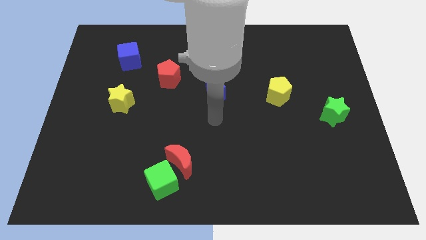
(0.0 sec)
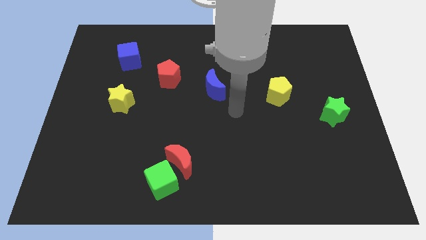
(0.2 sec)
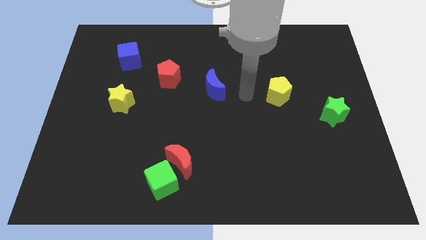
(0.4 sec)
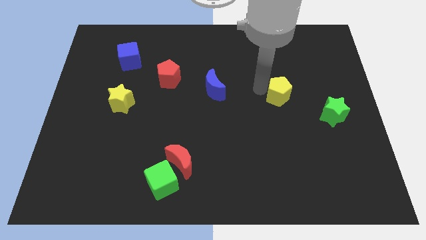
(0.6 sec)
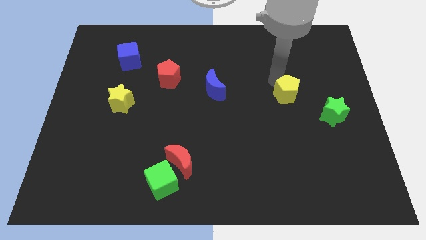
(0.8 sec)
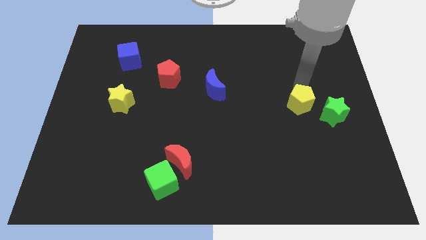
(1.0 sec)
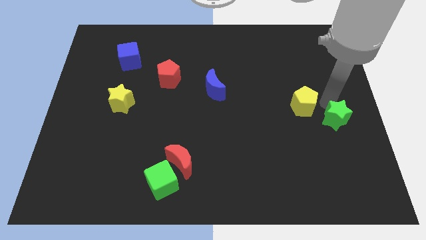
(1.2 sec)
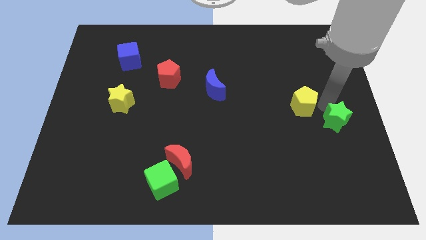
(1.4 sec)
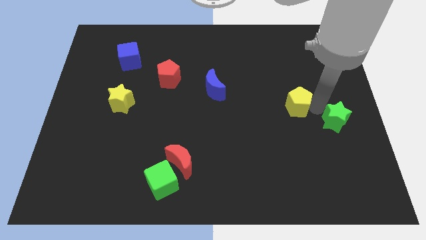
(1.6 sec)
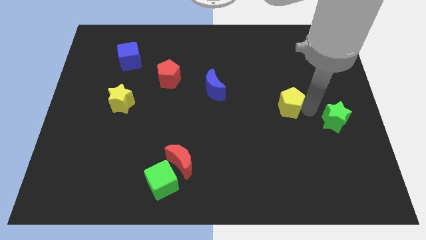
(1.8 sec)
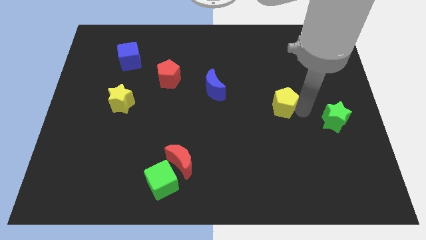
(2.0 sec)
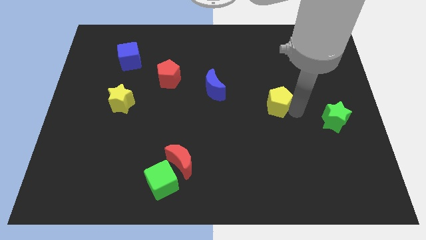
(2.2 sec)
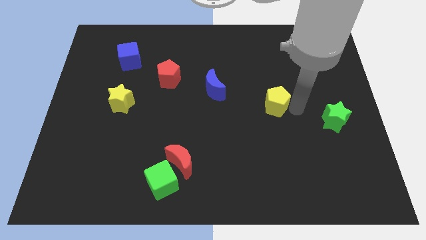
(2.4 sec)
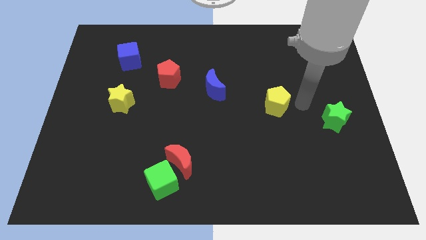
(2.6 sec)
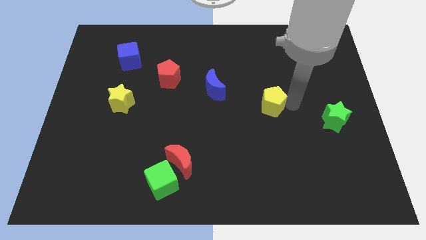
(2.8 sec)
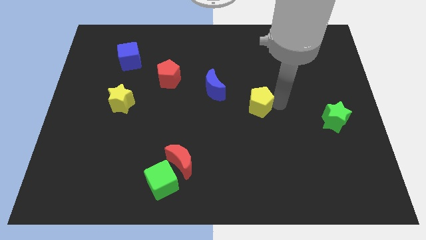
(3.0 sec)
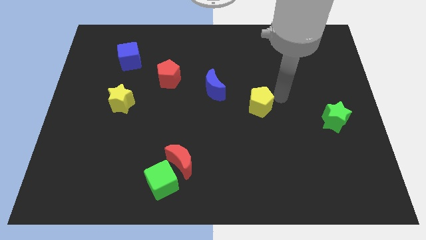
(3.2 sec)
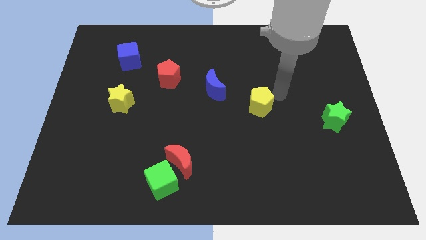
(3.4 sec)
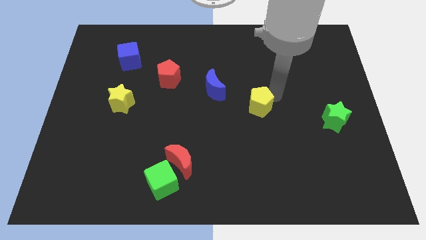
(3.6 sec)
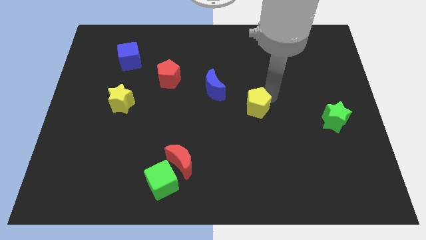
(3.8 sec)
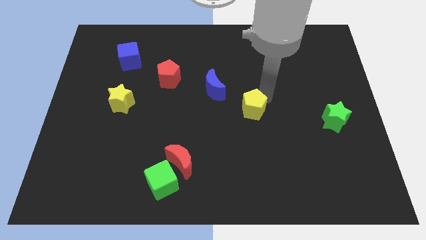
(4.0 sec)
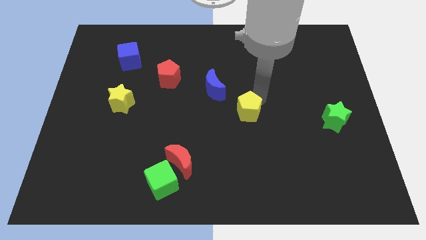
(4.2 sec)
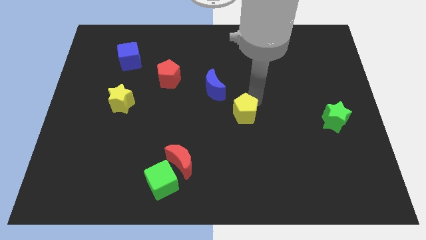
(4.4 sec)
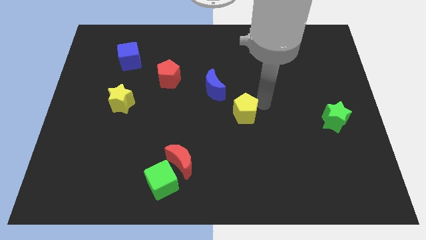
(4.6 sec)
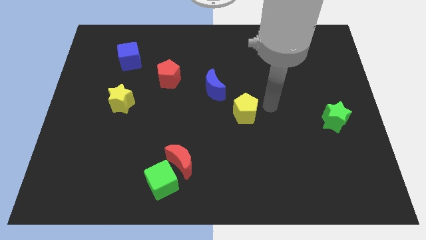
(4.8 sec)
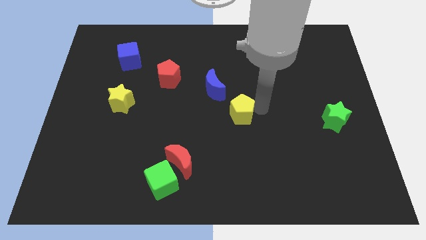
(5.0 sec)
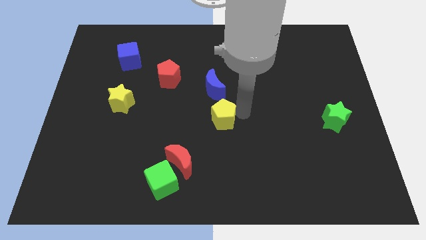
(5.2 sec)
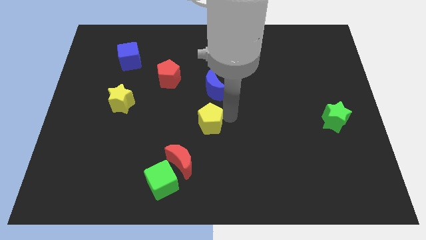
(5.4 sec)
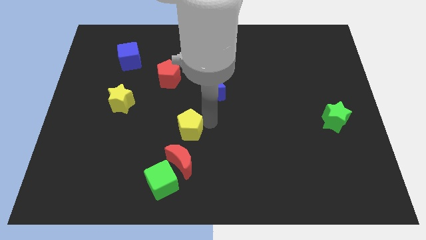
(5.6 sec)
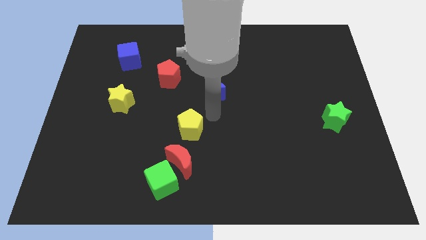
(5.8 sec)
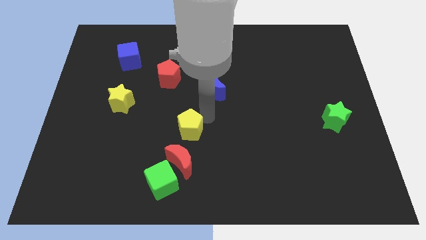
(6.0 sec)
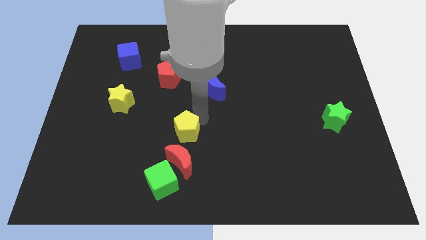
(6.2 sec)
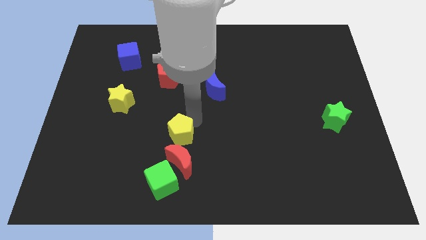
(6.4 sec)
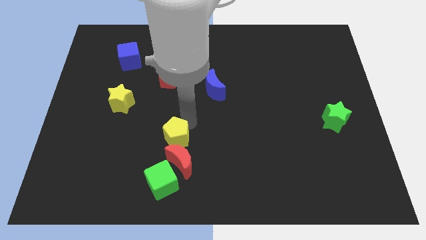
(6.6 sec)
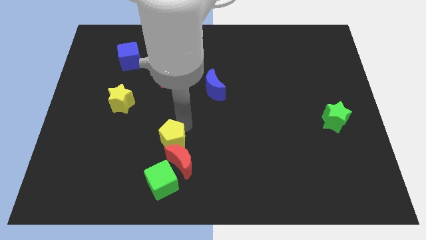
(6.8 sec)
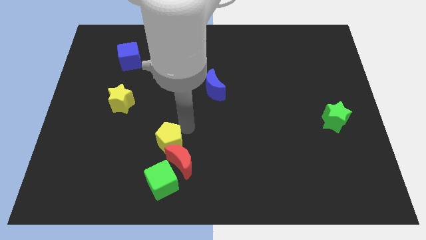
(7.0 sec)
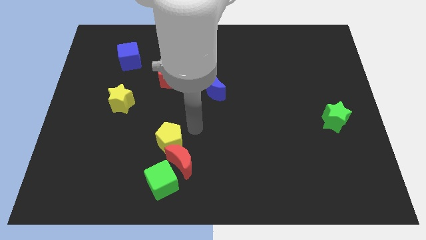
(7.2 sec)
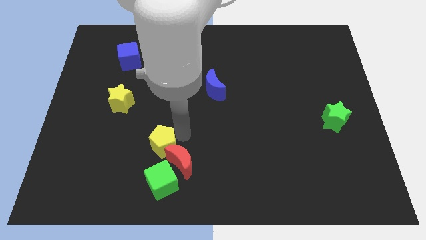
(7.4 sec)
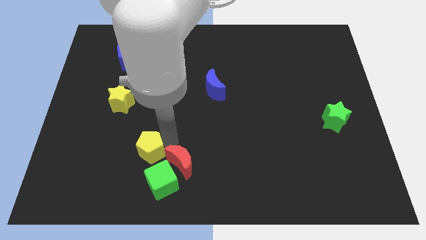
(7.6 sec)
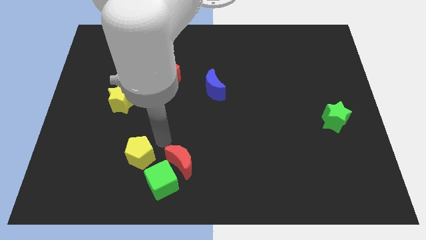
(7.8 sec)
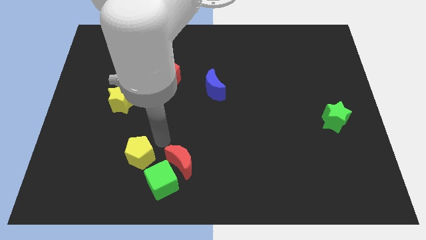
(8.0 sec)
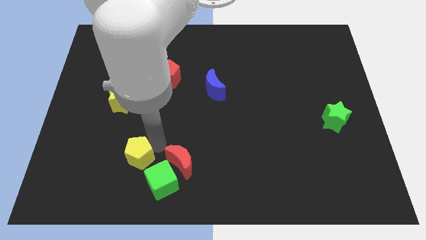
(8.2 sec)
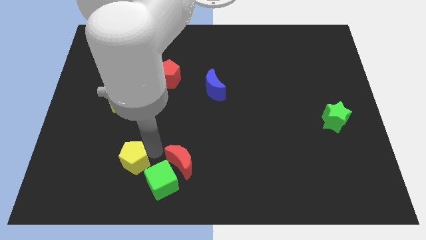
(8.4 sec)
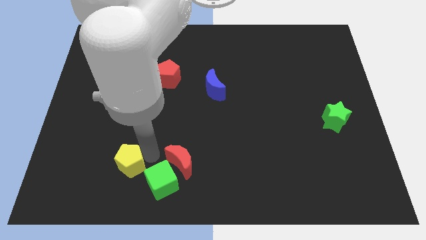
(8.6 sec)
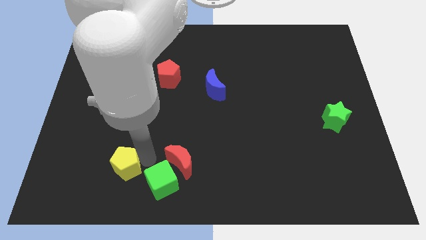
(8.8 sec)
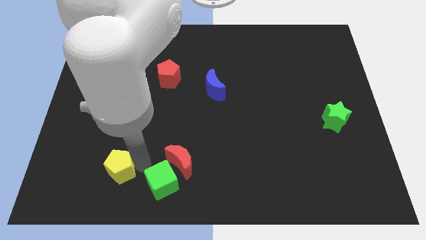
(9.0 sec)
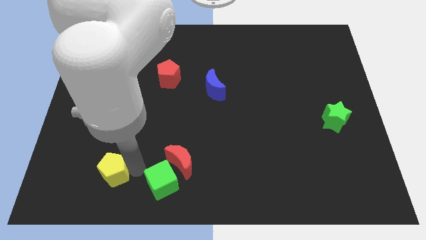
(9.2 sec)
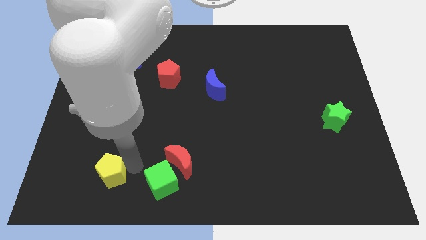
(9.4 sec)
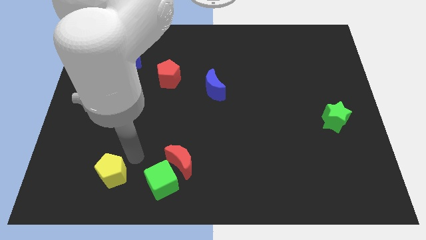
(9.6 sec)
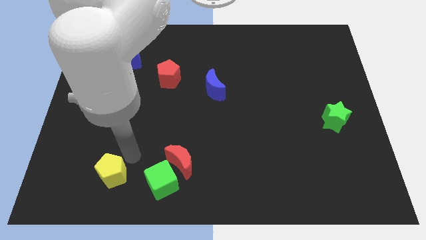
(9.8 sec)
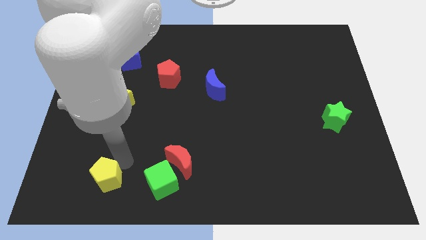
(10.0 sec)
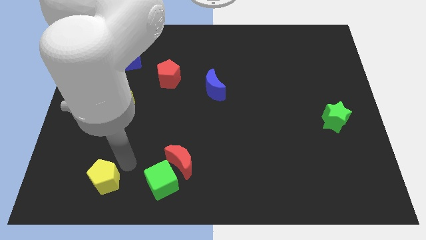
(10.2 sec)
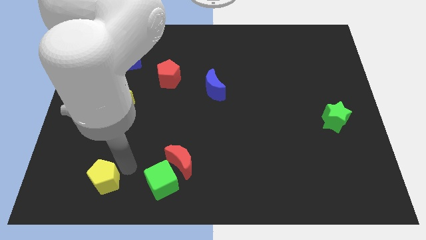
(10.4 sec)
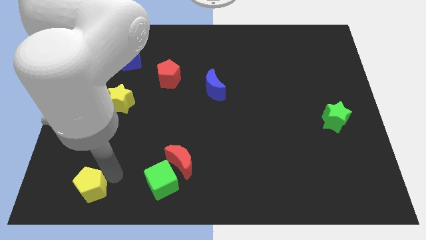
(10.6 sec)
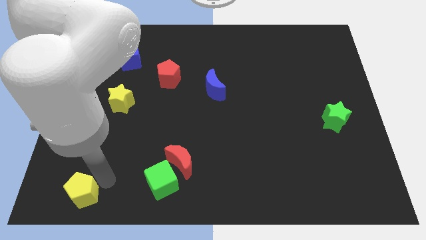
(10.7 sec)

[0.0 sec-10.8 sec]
move the yellow pentagon to the bottom left of the board

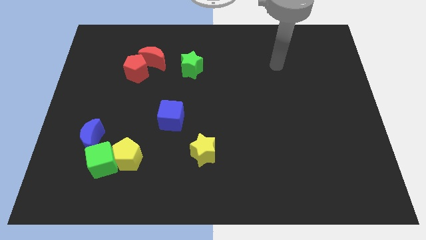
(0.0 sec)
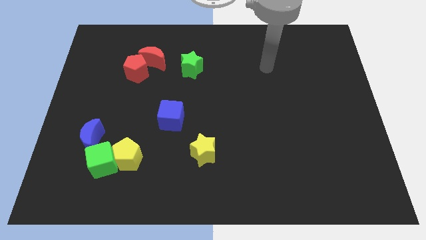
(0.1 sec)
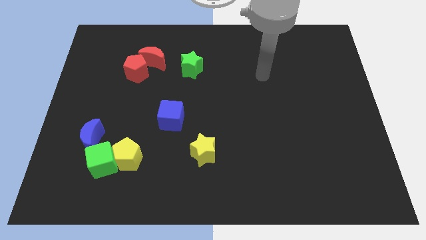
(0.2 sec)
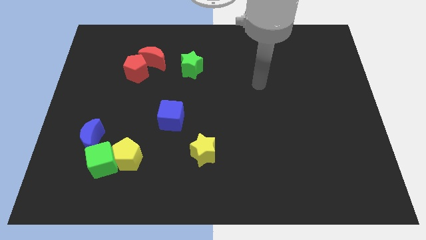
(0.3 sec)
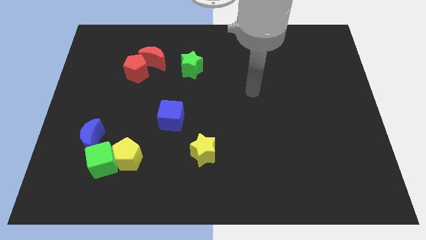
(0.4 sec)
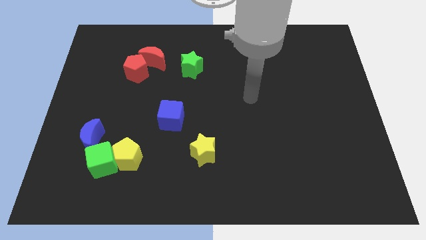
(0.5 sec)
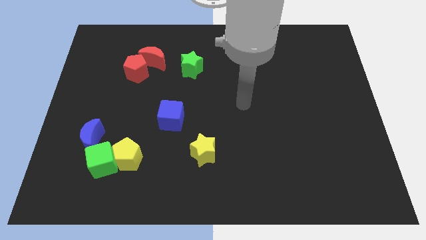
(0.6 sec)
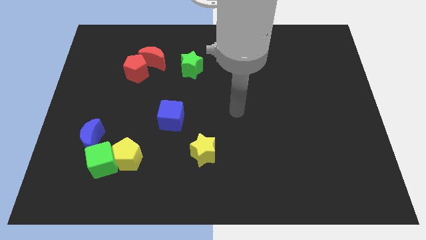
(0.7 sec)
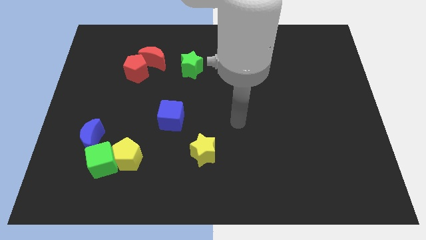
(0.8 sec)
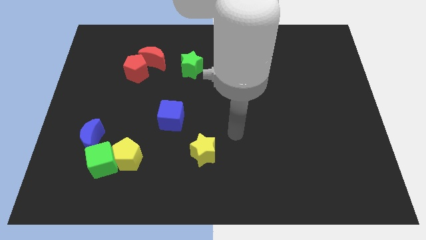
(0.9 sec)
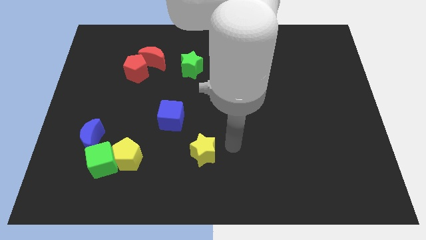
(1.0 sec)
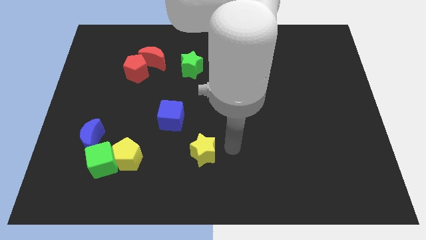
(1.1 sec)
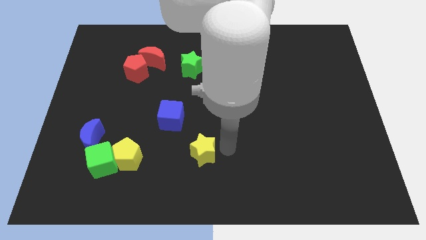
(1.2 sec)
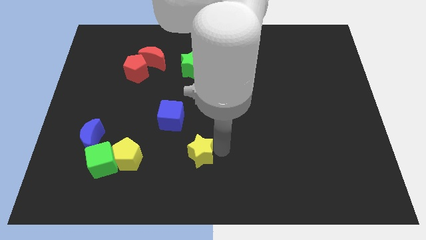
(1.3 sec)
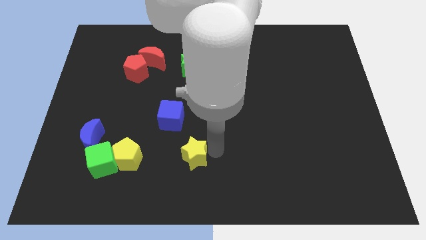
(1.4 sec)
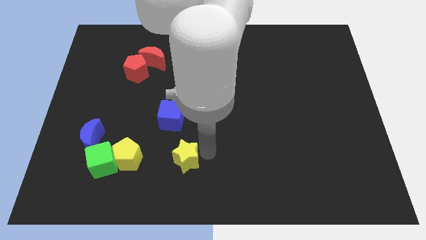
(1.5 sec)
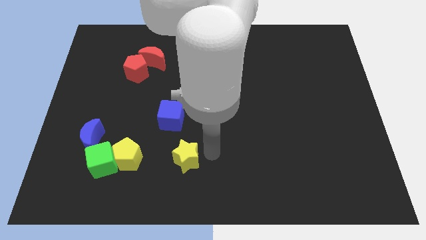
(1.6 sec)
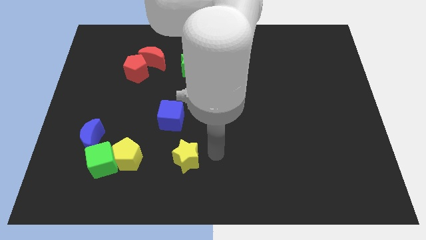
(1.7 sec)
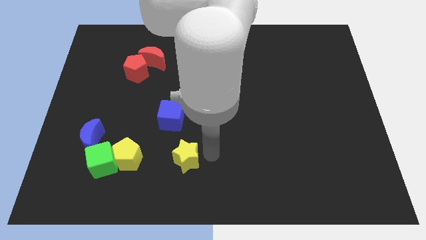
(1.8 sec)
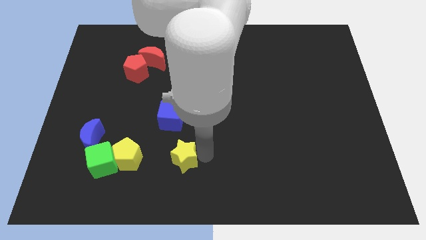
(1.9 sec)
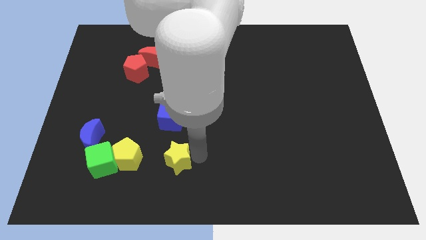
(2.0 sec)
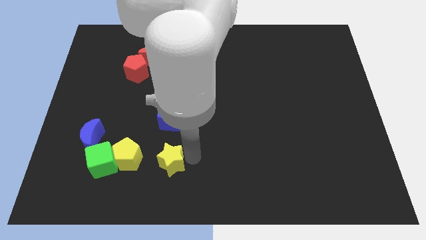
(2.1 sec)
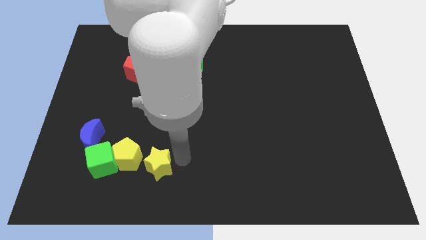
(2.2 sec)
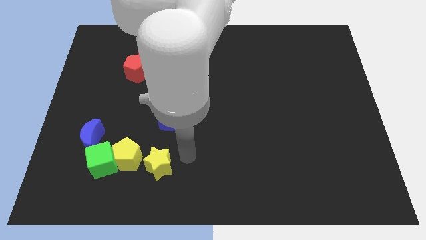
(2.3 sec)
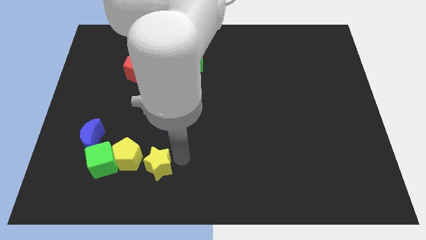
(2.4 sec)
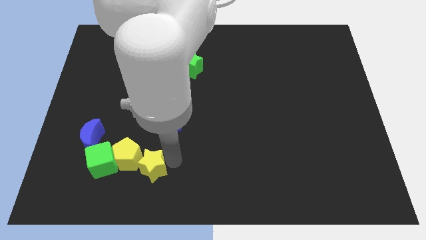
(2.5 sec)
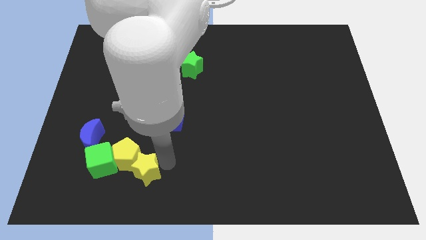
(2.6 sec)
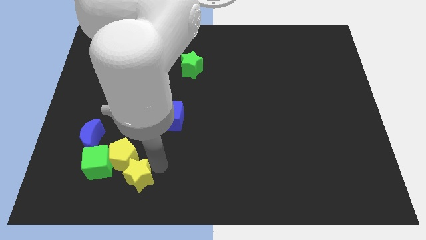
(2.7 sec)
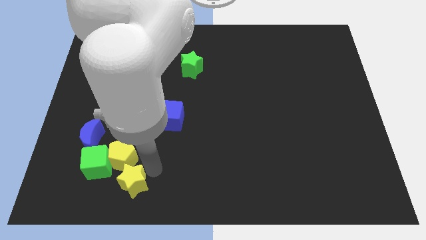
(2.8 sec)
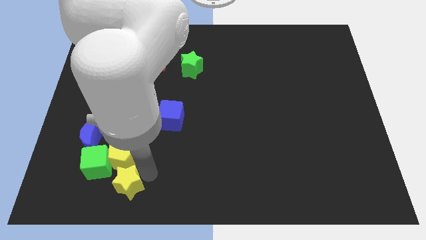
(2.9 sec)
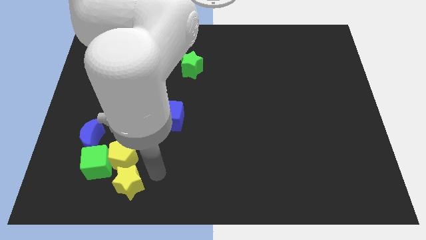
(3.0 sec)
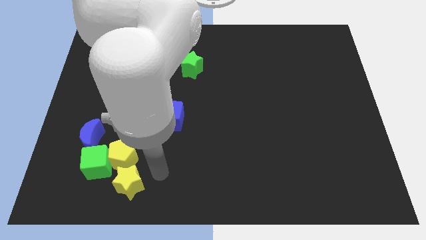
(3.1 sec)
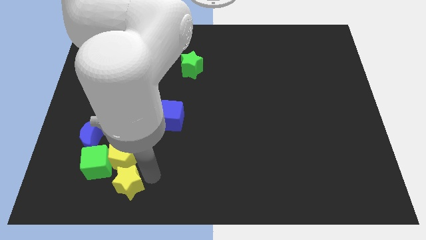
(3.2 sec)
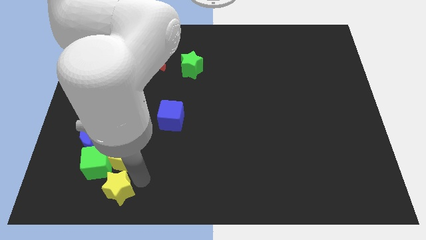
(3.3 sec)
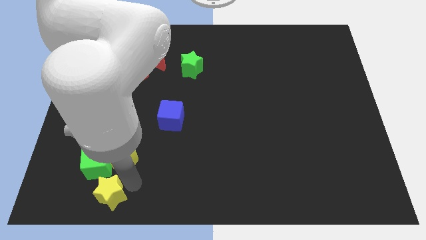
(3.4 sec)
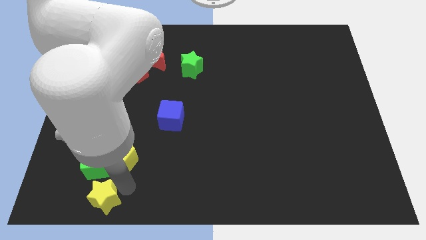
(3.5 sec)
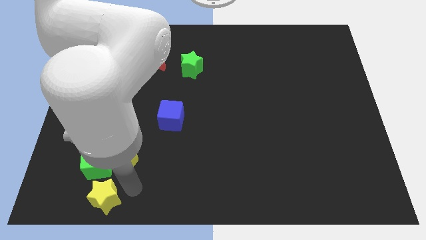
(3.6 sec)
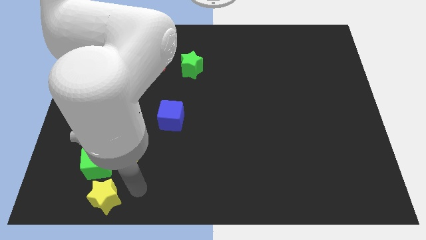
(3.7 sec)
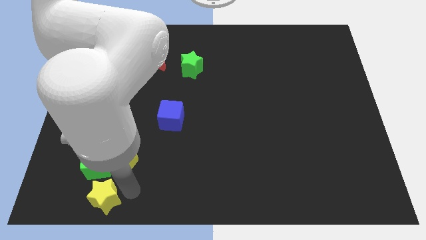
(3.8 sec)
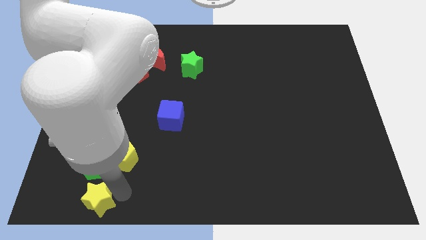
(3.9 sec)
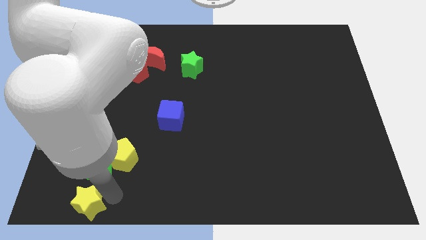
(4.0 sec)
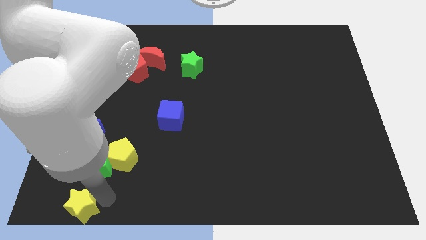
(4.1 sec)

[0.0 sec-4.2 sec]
push the yellow star to the bottom left
